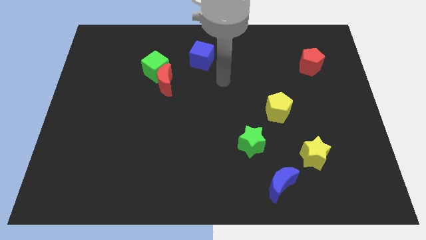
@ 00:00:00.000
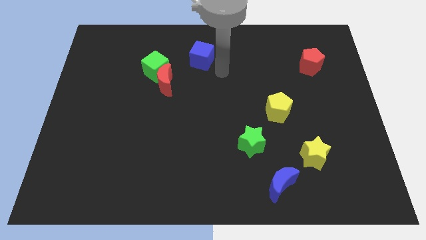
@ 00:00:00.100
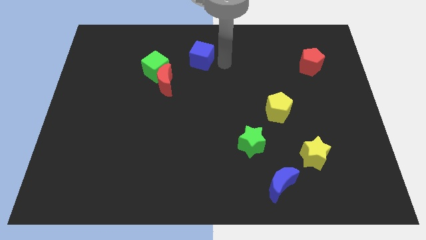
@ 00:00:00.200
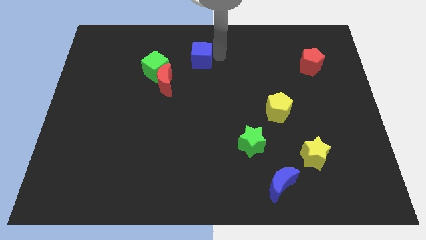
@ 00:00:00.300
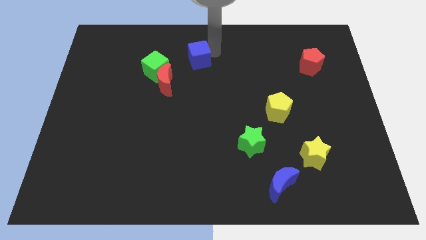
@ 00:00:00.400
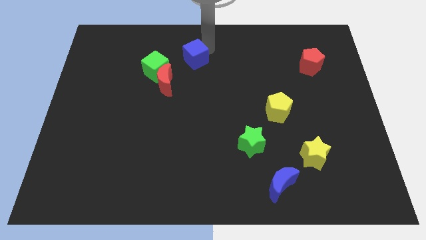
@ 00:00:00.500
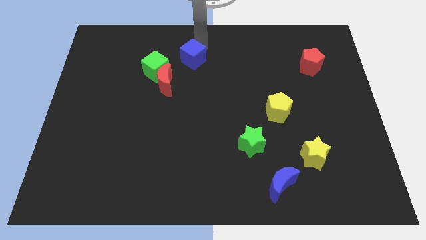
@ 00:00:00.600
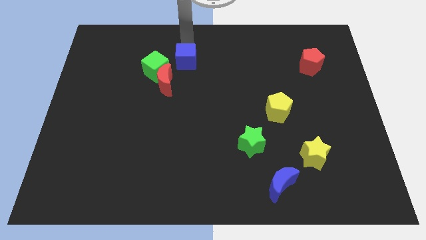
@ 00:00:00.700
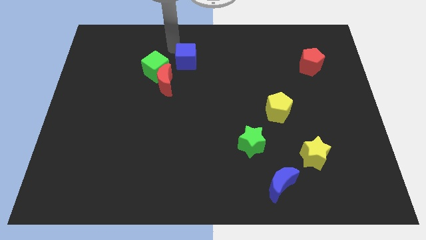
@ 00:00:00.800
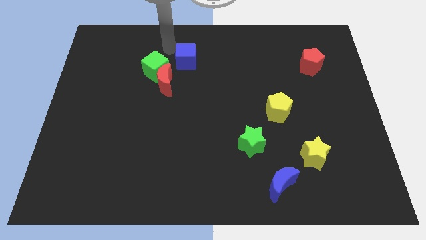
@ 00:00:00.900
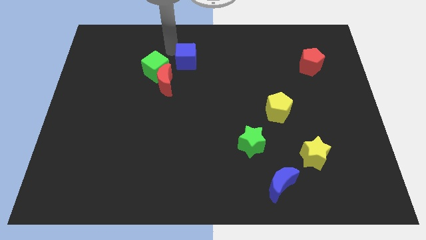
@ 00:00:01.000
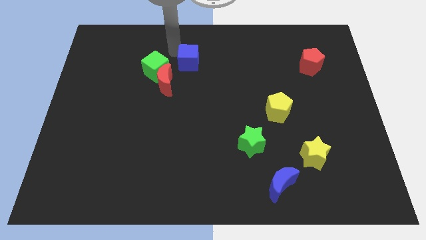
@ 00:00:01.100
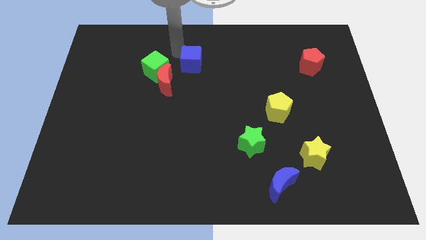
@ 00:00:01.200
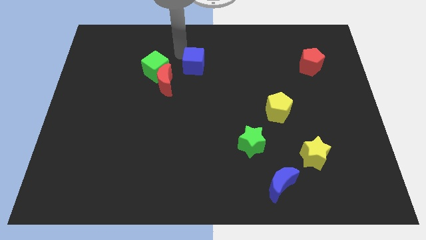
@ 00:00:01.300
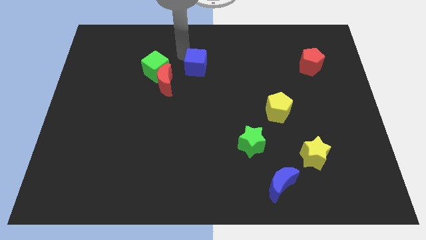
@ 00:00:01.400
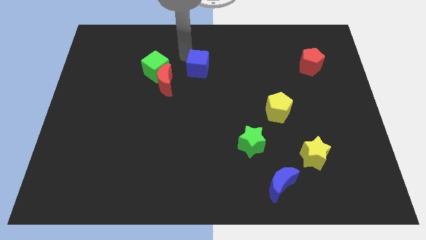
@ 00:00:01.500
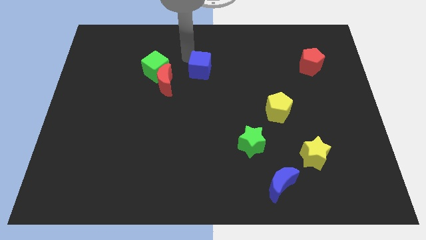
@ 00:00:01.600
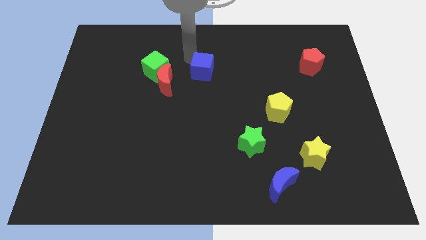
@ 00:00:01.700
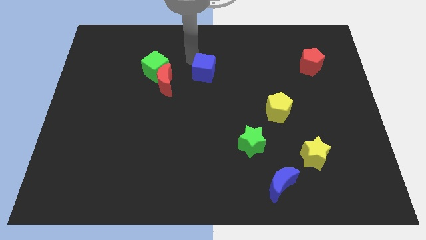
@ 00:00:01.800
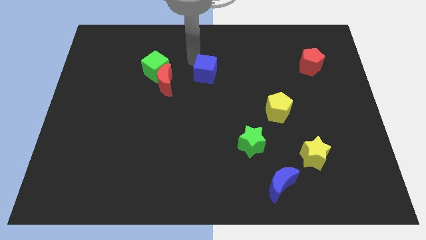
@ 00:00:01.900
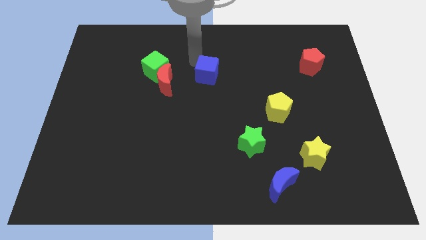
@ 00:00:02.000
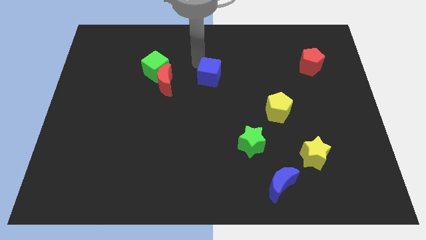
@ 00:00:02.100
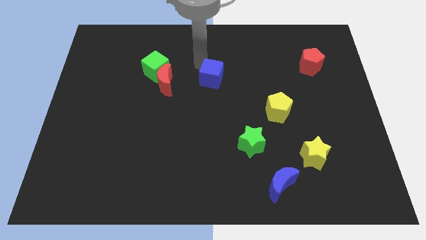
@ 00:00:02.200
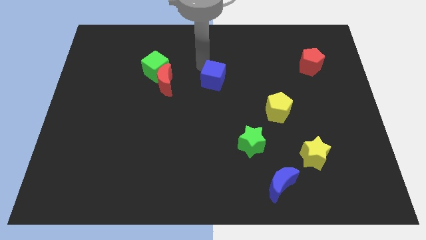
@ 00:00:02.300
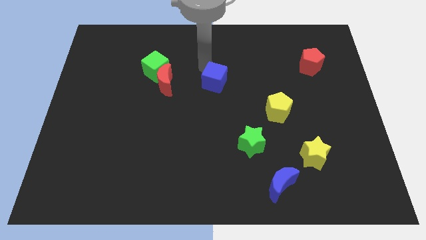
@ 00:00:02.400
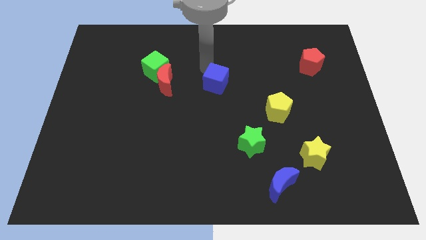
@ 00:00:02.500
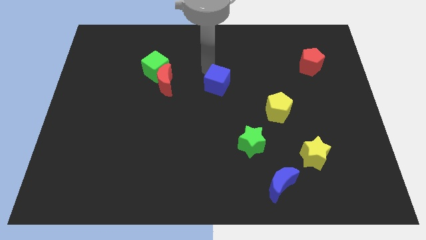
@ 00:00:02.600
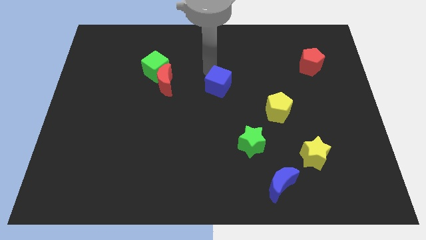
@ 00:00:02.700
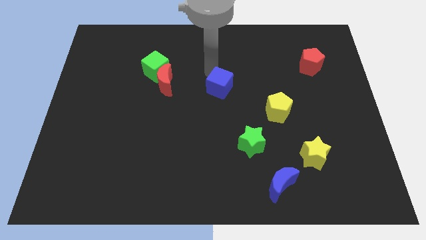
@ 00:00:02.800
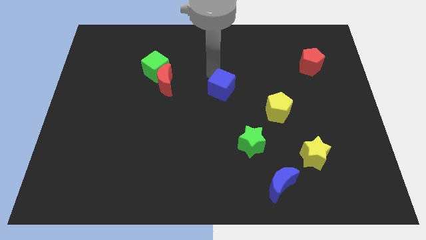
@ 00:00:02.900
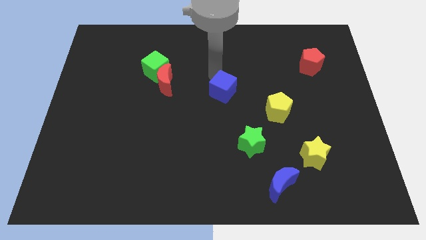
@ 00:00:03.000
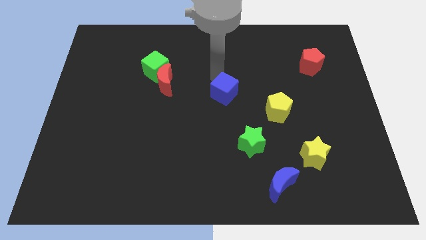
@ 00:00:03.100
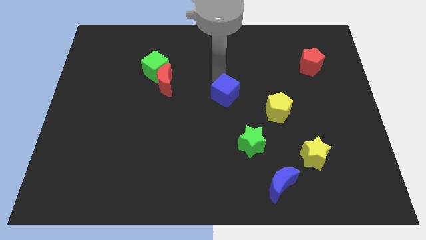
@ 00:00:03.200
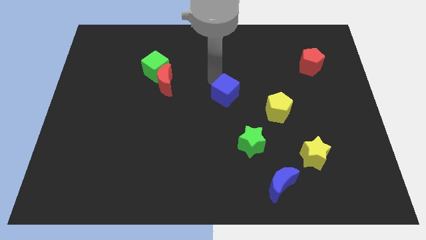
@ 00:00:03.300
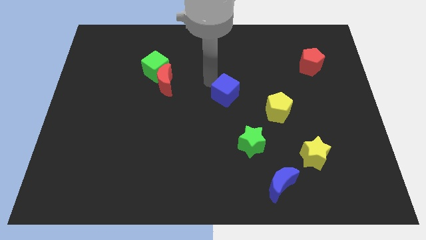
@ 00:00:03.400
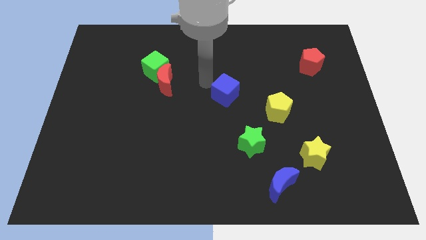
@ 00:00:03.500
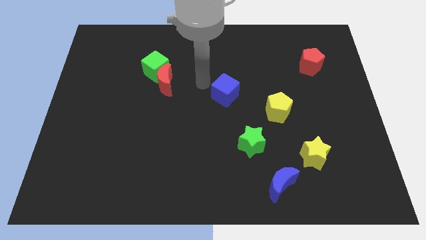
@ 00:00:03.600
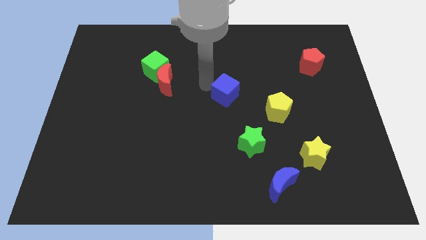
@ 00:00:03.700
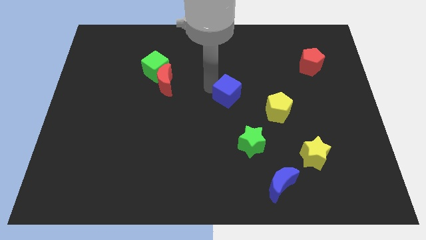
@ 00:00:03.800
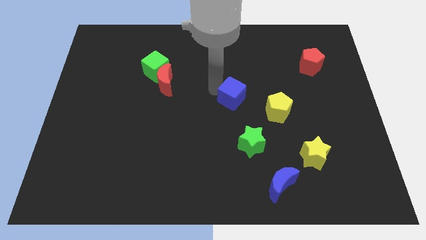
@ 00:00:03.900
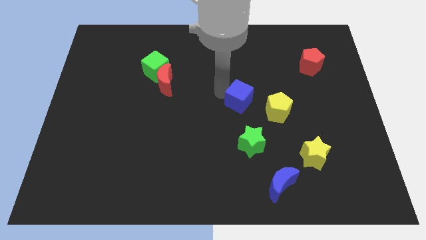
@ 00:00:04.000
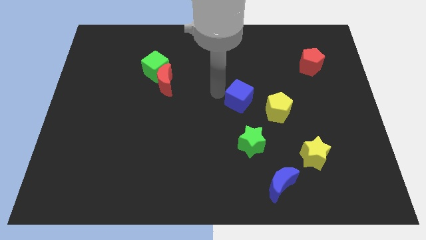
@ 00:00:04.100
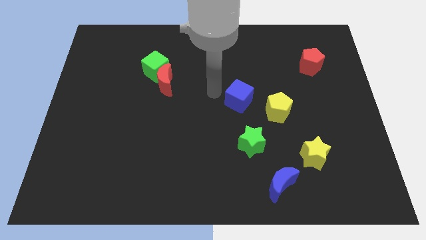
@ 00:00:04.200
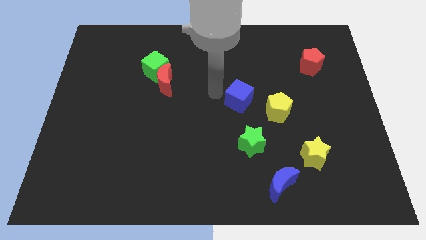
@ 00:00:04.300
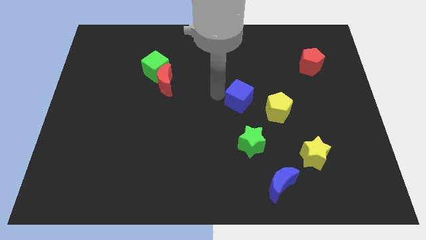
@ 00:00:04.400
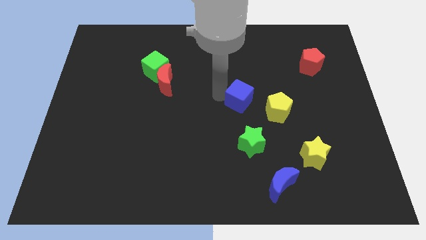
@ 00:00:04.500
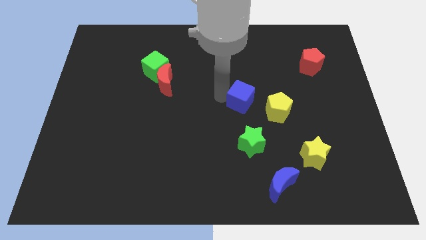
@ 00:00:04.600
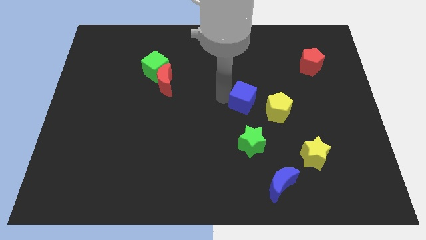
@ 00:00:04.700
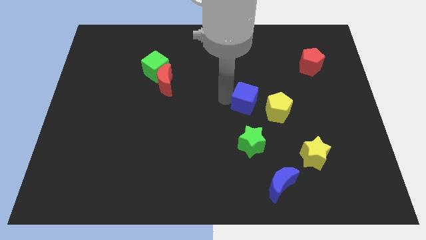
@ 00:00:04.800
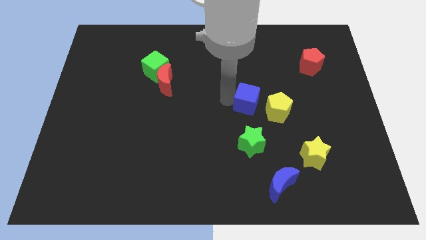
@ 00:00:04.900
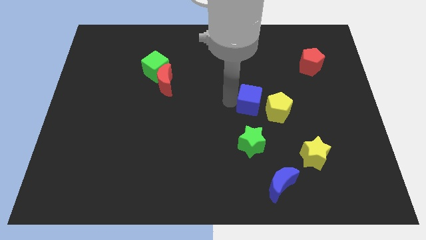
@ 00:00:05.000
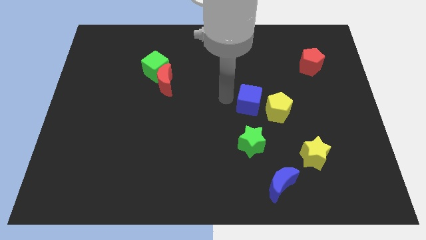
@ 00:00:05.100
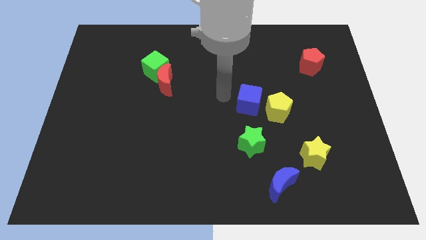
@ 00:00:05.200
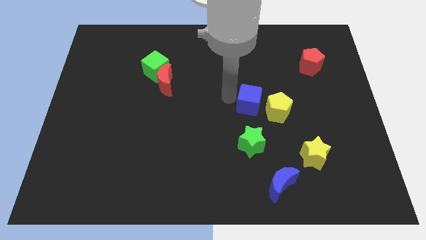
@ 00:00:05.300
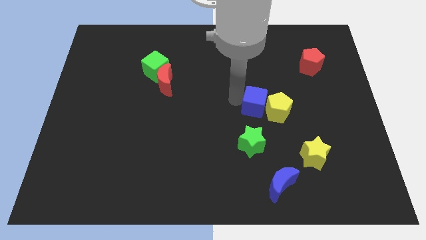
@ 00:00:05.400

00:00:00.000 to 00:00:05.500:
put the blue cube next to the yellow pentagon

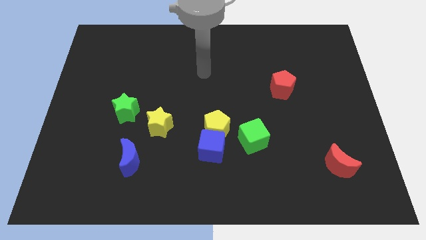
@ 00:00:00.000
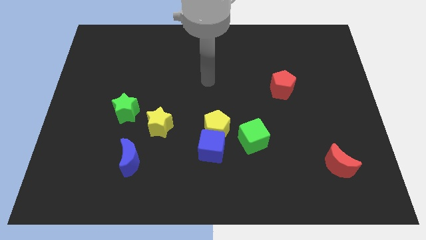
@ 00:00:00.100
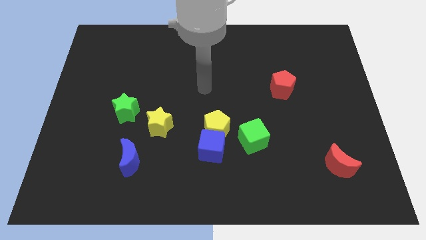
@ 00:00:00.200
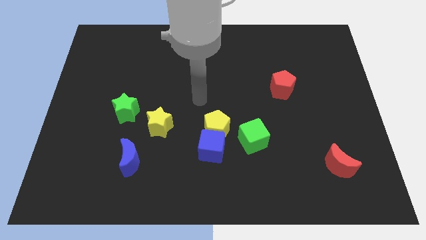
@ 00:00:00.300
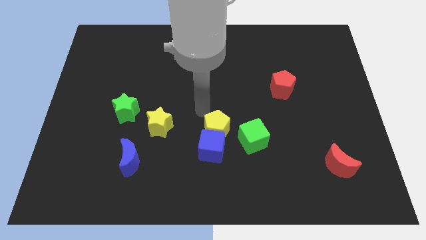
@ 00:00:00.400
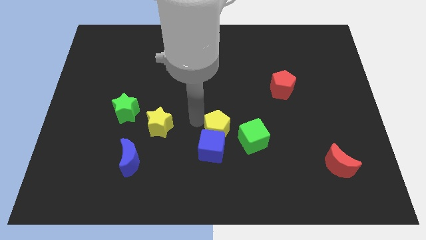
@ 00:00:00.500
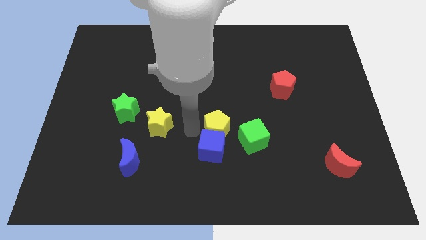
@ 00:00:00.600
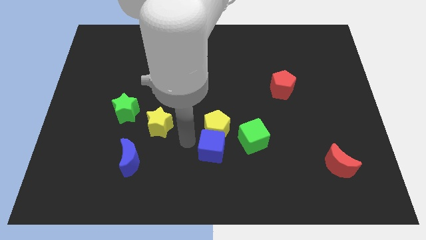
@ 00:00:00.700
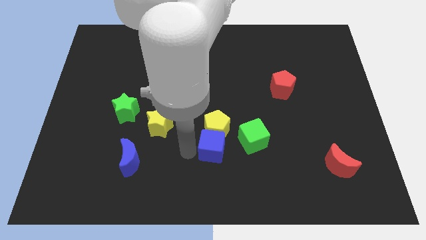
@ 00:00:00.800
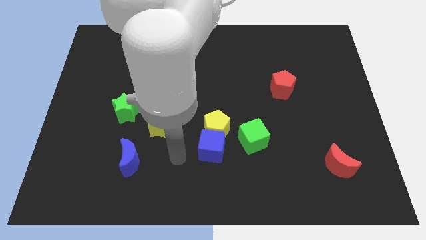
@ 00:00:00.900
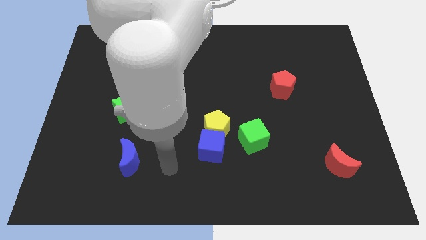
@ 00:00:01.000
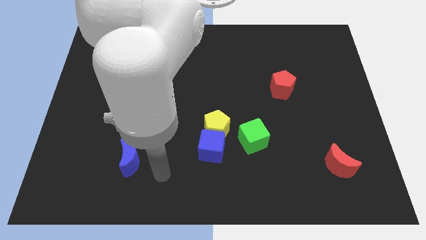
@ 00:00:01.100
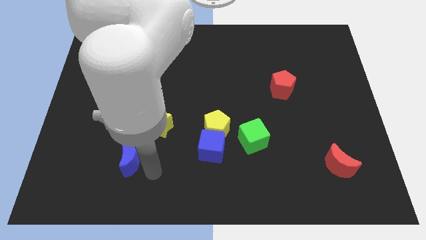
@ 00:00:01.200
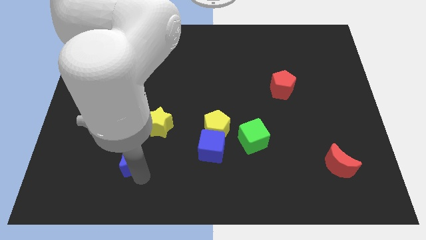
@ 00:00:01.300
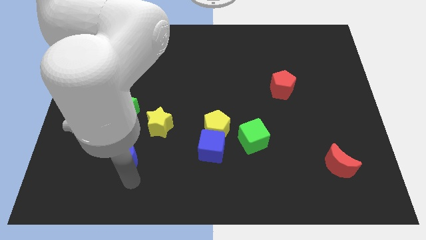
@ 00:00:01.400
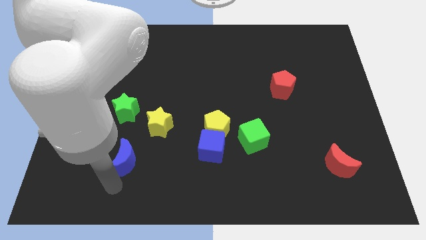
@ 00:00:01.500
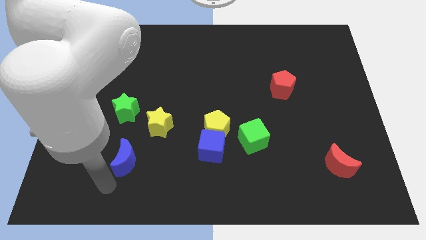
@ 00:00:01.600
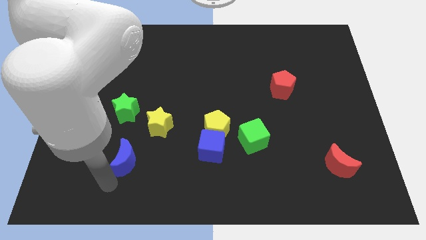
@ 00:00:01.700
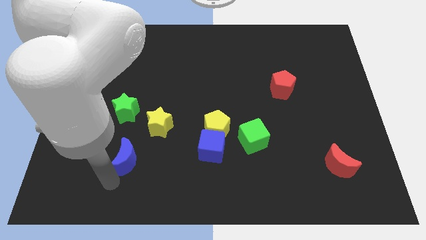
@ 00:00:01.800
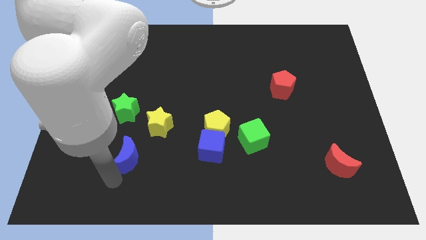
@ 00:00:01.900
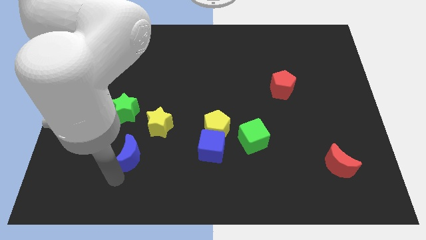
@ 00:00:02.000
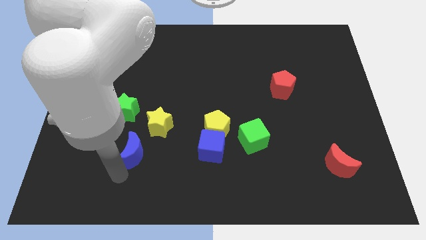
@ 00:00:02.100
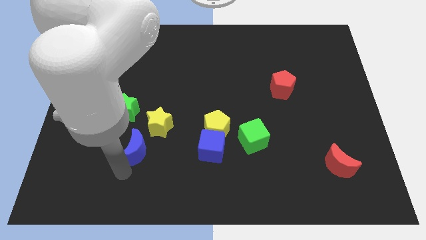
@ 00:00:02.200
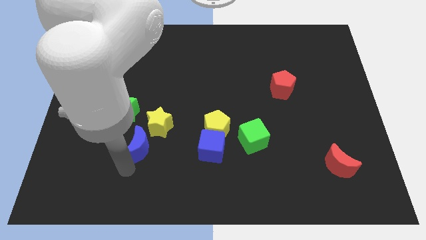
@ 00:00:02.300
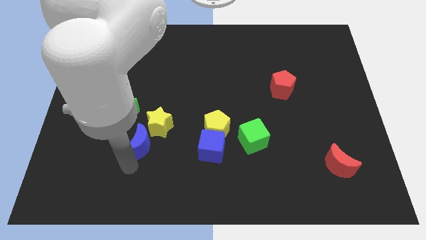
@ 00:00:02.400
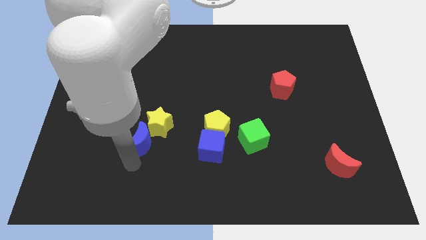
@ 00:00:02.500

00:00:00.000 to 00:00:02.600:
push the blue moon next to the yellow star
